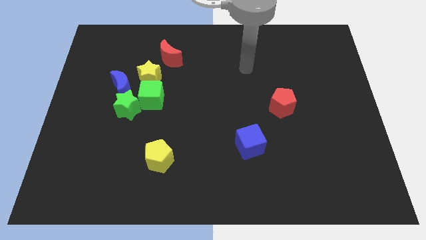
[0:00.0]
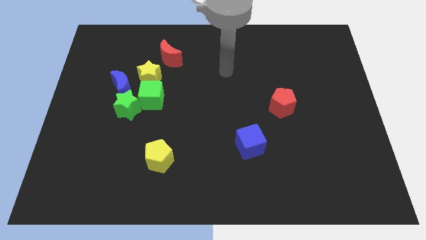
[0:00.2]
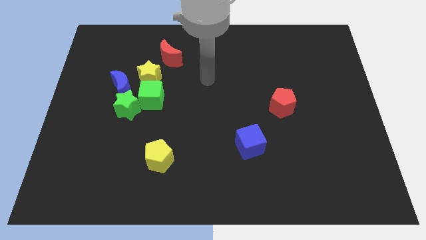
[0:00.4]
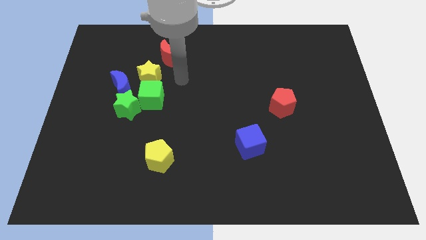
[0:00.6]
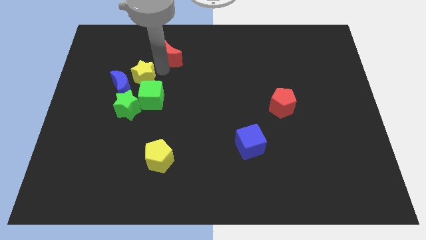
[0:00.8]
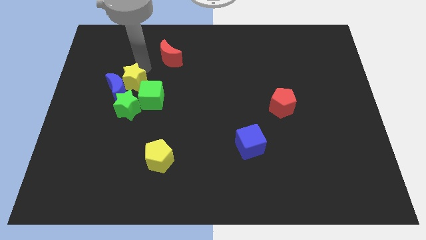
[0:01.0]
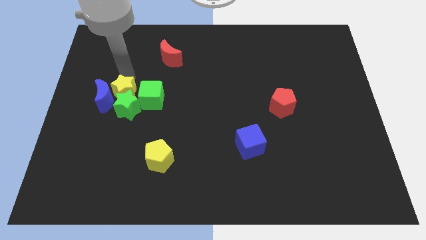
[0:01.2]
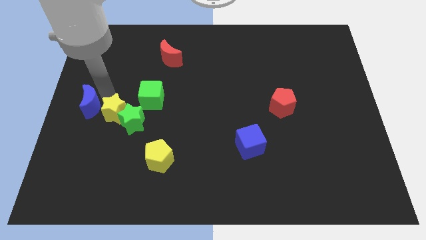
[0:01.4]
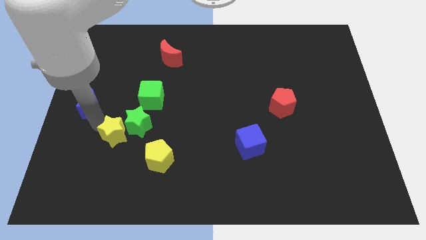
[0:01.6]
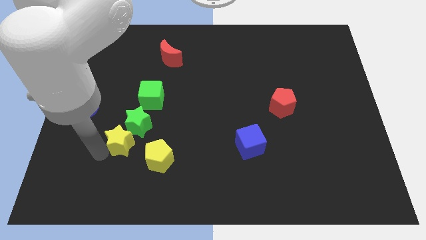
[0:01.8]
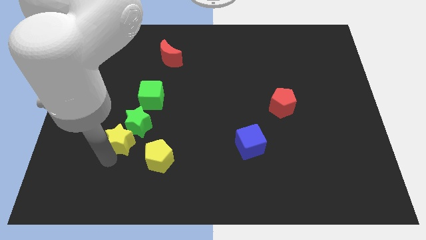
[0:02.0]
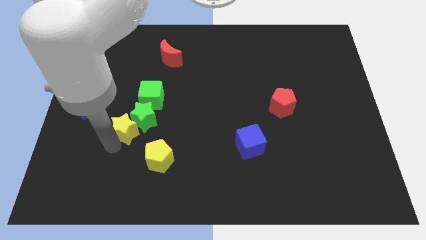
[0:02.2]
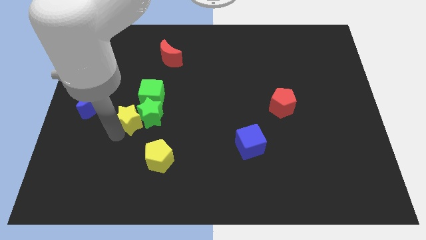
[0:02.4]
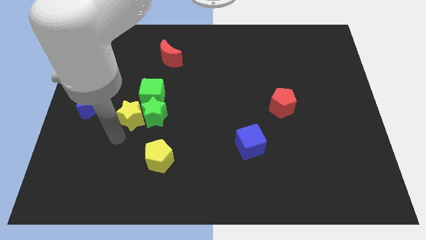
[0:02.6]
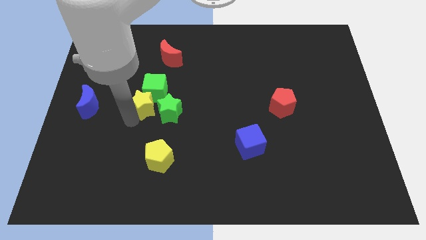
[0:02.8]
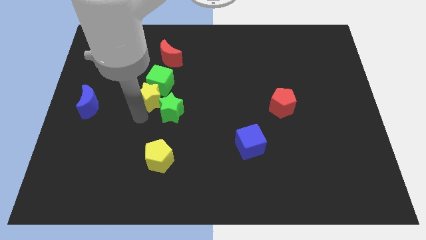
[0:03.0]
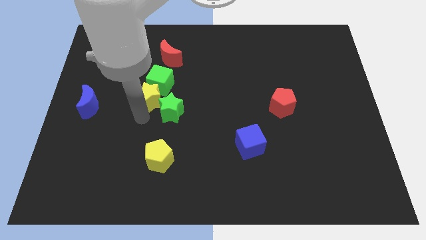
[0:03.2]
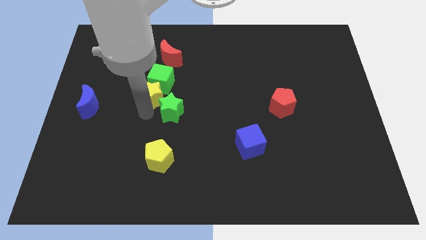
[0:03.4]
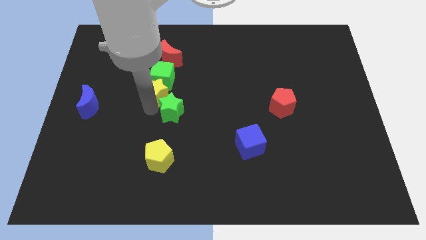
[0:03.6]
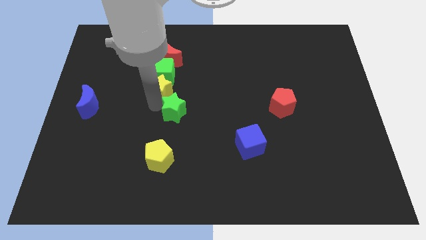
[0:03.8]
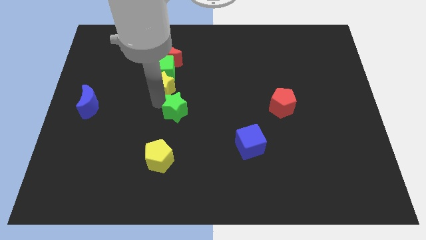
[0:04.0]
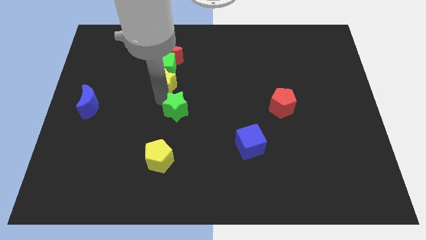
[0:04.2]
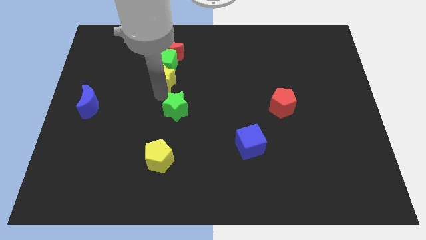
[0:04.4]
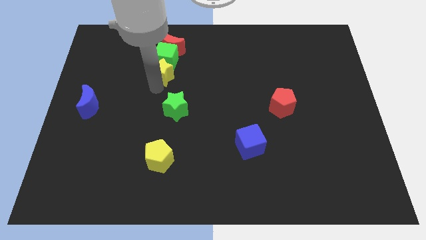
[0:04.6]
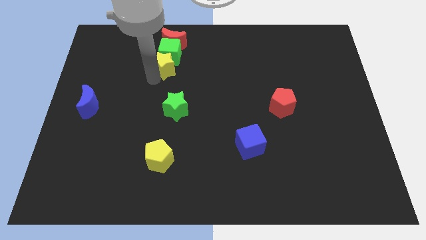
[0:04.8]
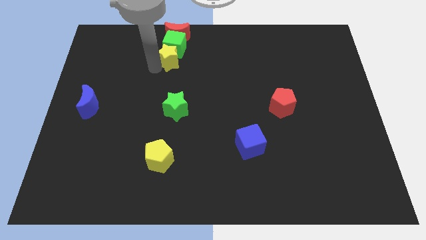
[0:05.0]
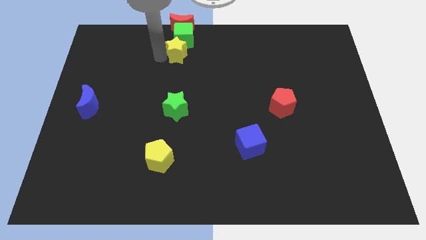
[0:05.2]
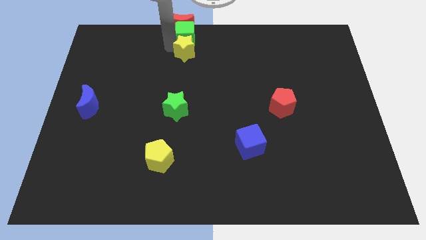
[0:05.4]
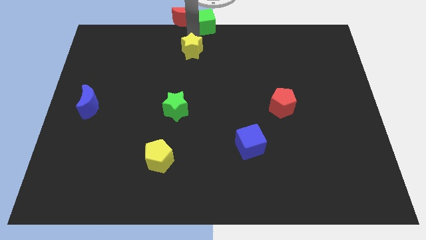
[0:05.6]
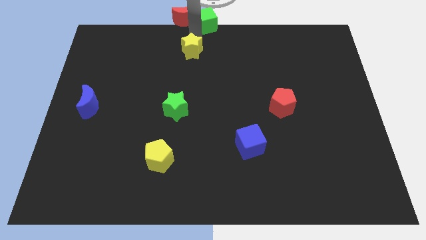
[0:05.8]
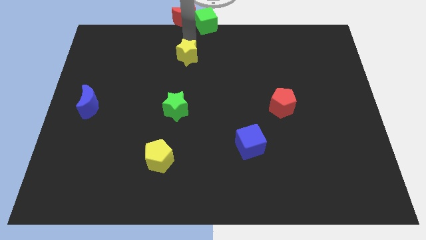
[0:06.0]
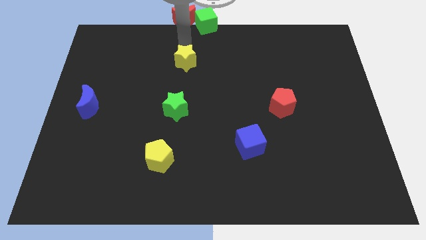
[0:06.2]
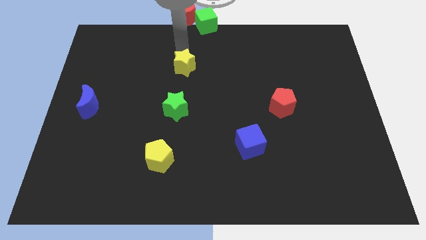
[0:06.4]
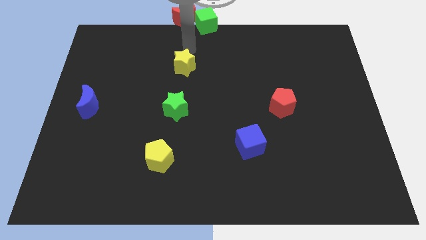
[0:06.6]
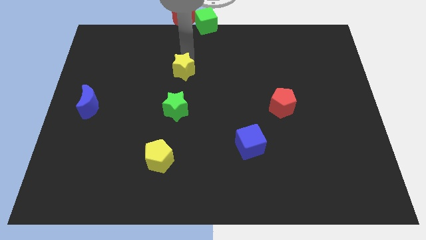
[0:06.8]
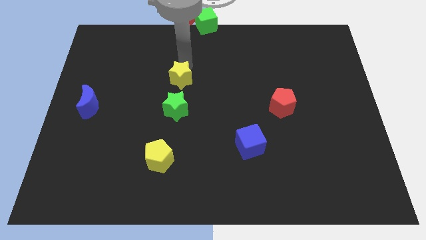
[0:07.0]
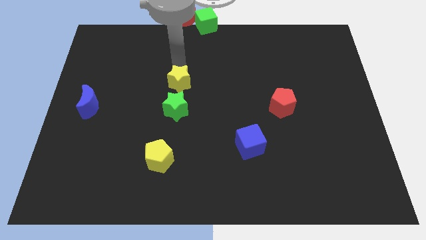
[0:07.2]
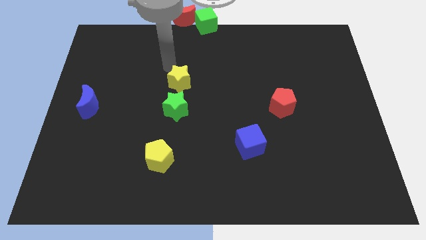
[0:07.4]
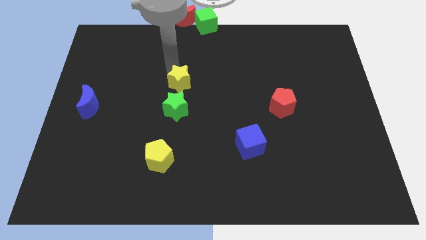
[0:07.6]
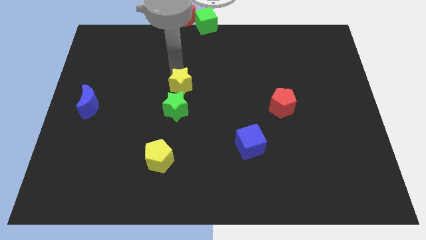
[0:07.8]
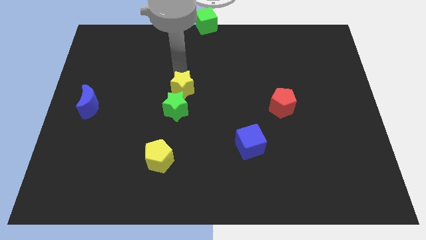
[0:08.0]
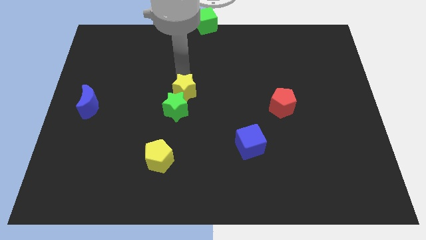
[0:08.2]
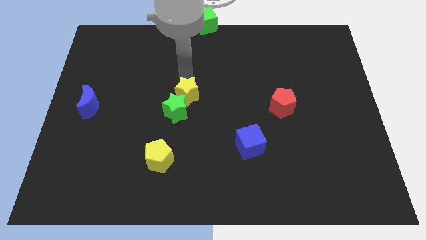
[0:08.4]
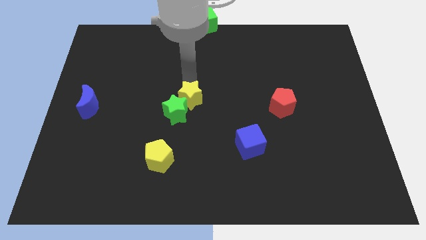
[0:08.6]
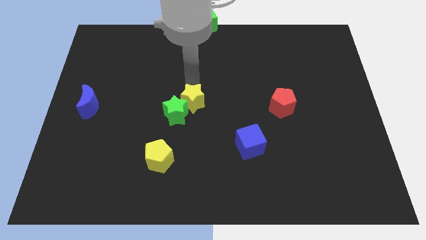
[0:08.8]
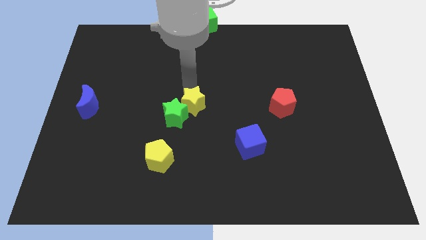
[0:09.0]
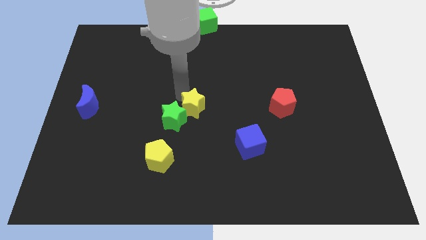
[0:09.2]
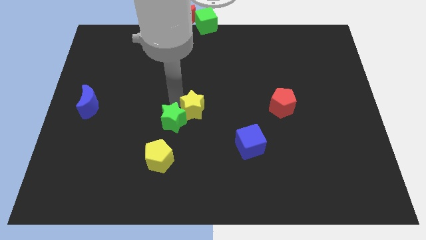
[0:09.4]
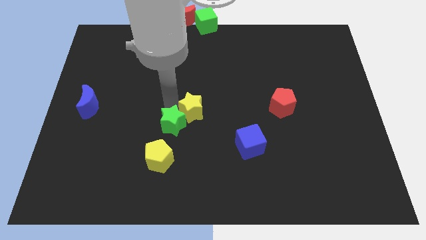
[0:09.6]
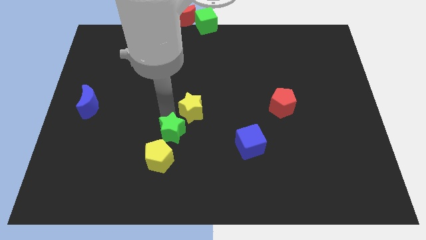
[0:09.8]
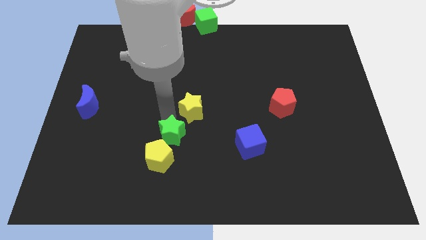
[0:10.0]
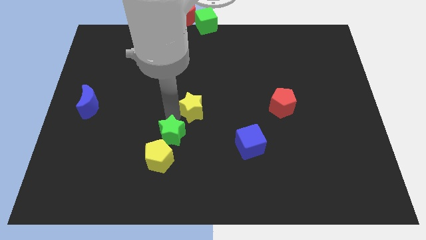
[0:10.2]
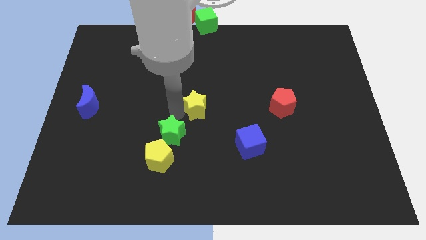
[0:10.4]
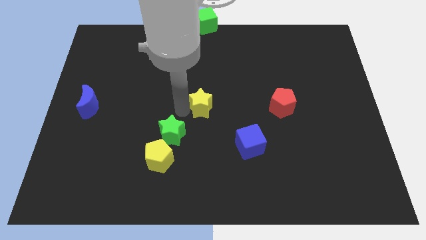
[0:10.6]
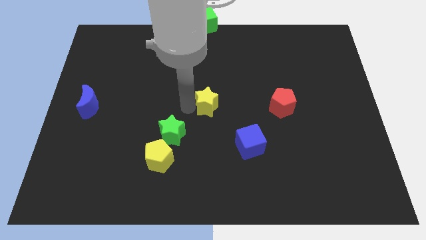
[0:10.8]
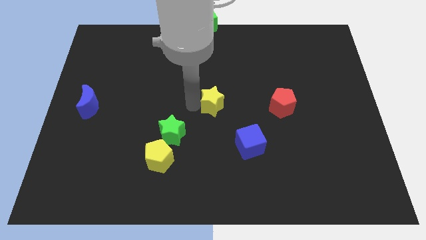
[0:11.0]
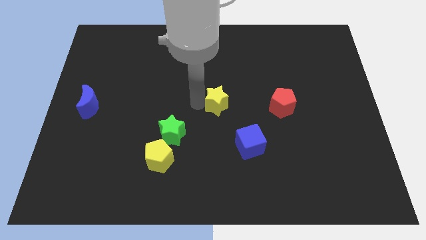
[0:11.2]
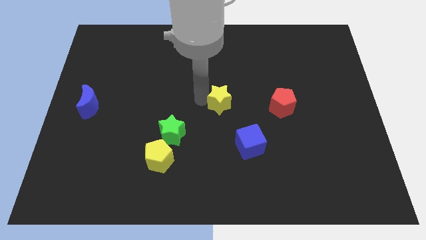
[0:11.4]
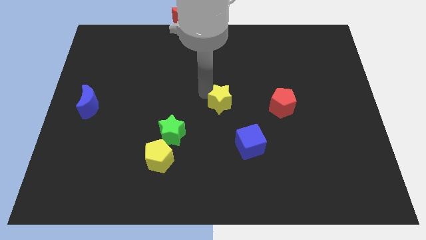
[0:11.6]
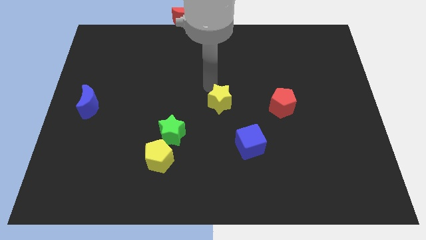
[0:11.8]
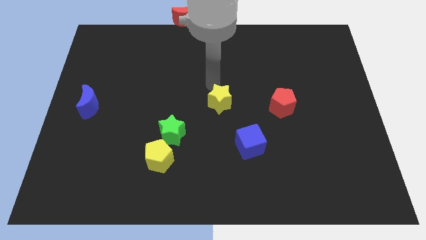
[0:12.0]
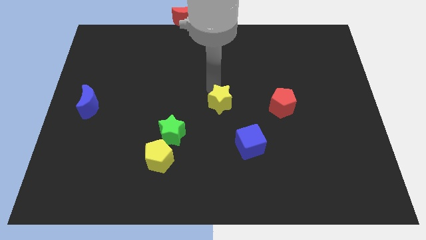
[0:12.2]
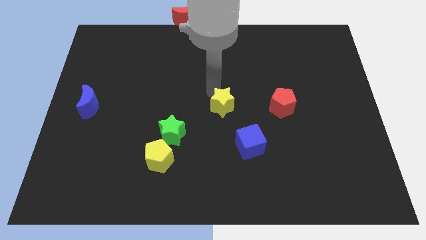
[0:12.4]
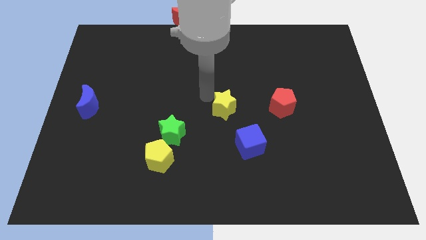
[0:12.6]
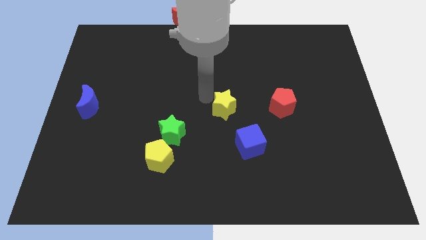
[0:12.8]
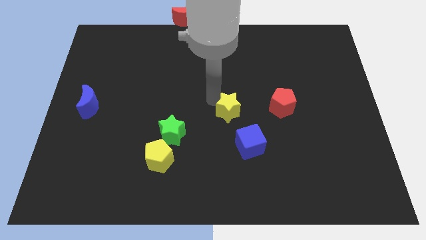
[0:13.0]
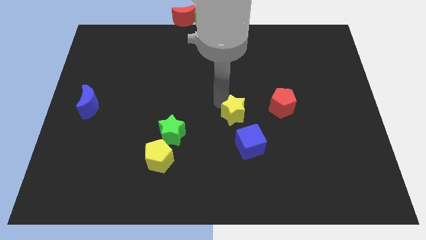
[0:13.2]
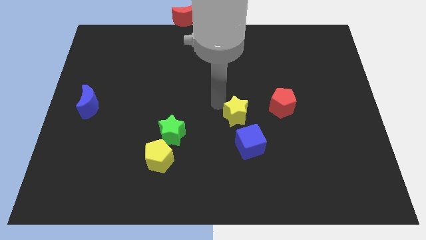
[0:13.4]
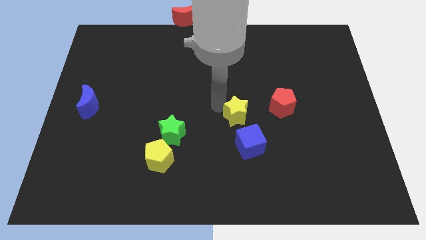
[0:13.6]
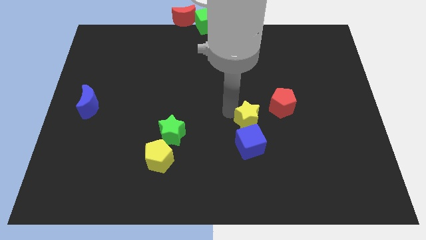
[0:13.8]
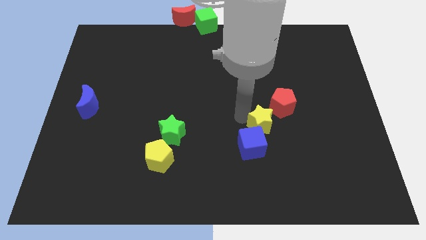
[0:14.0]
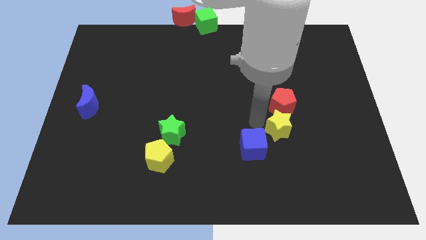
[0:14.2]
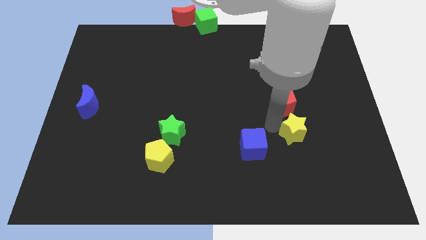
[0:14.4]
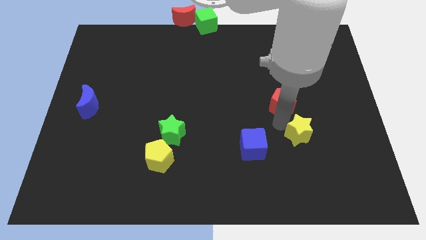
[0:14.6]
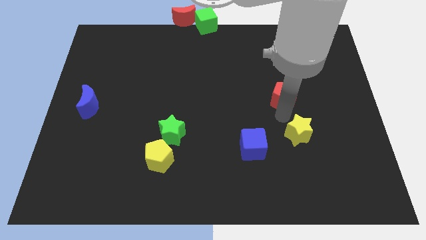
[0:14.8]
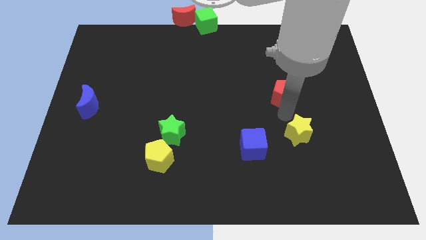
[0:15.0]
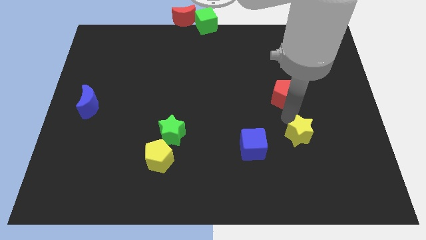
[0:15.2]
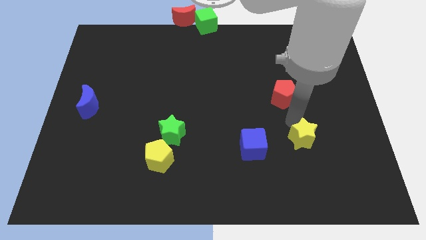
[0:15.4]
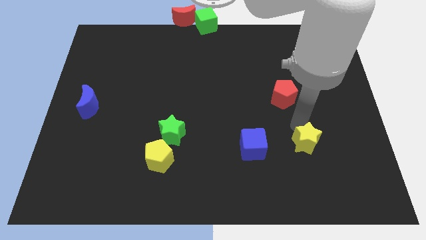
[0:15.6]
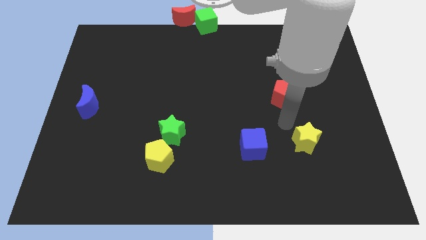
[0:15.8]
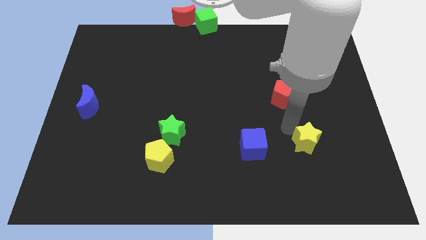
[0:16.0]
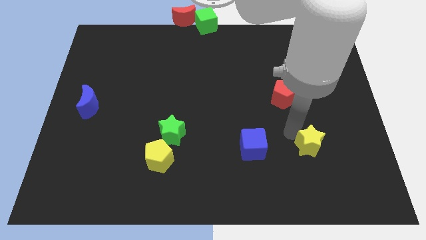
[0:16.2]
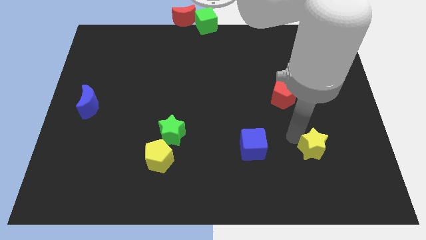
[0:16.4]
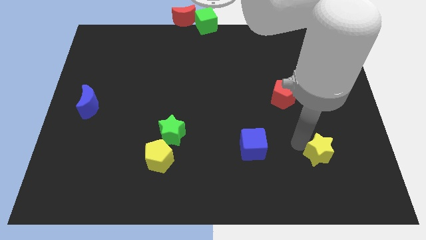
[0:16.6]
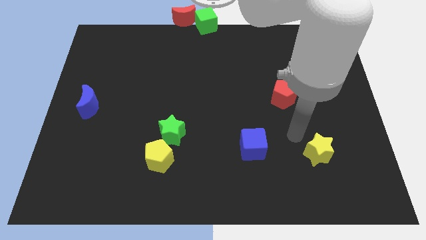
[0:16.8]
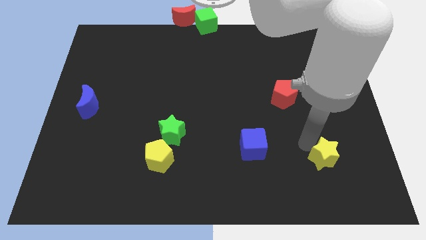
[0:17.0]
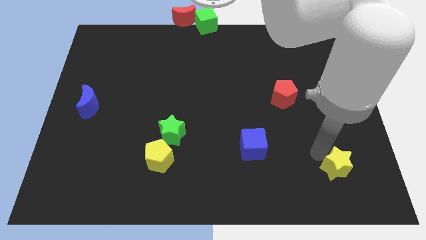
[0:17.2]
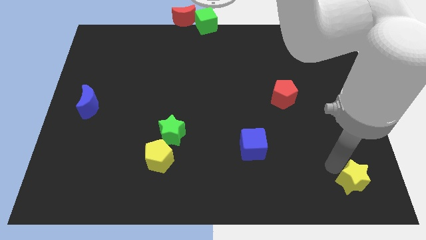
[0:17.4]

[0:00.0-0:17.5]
put the yellow star to the bottom right corner
